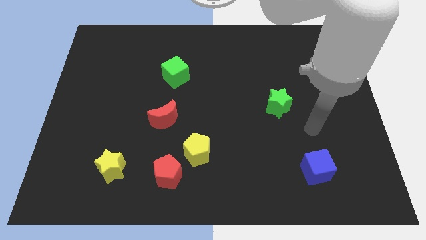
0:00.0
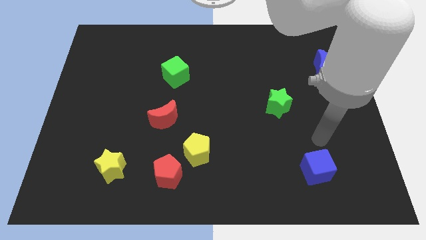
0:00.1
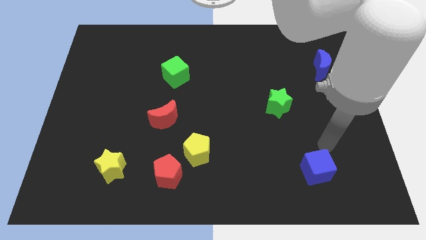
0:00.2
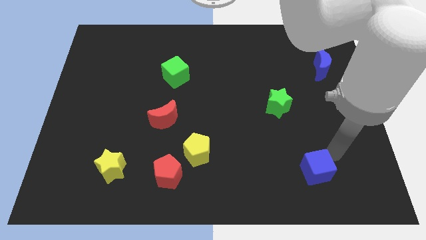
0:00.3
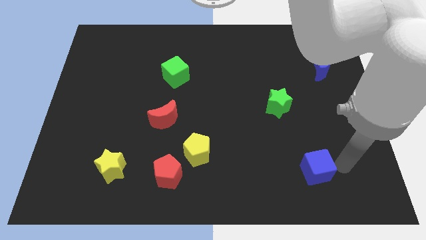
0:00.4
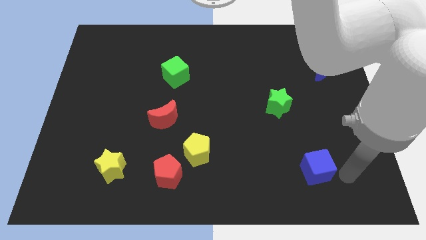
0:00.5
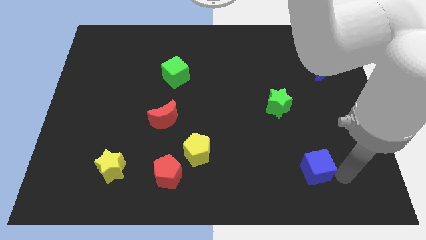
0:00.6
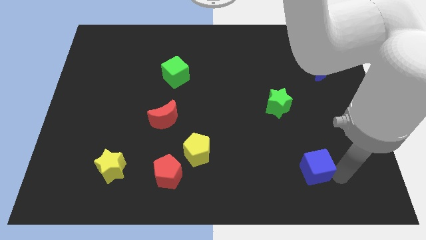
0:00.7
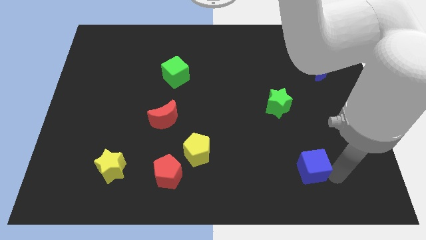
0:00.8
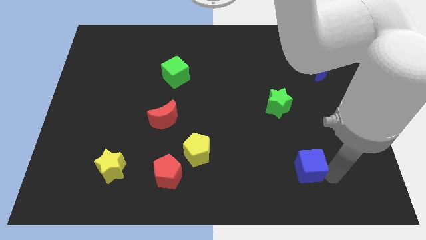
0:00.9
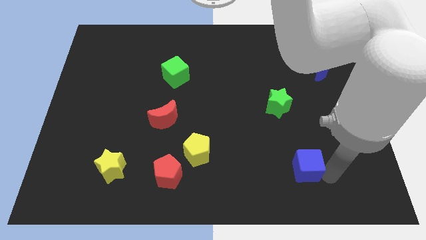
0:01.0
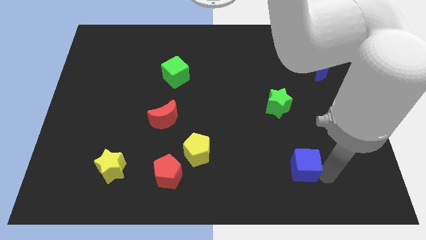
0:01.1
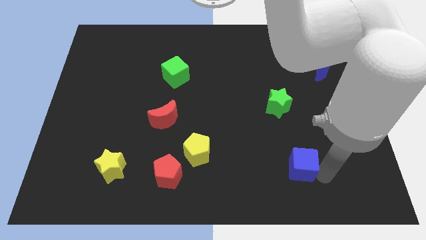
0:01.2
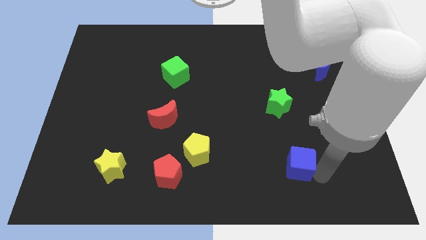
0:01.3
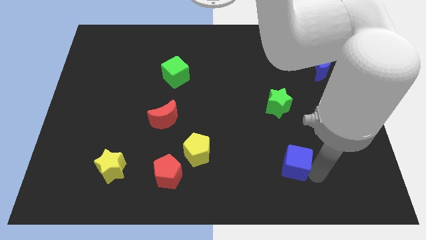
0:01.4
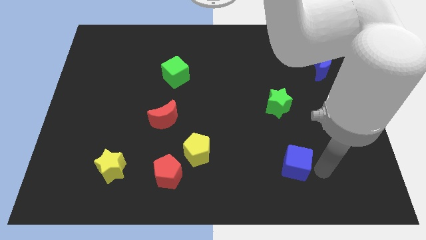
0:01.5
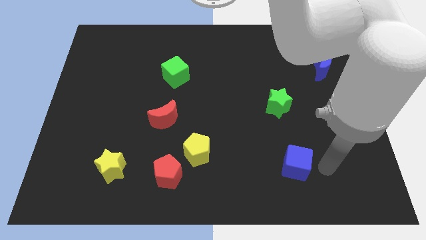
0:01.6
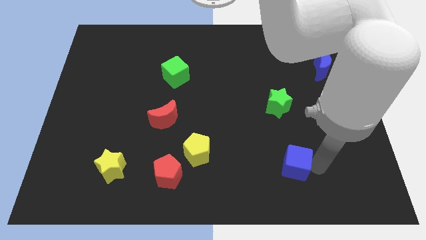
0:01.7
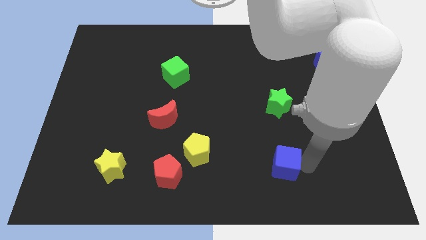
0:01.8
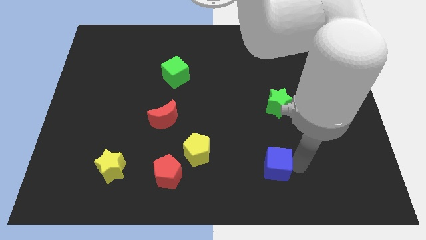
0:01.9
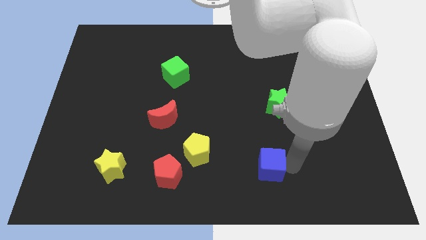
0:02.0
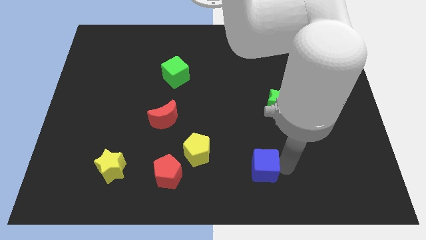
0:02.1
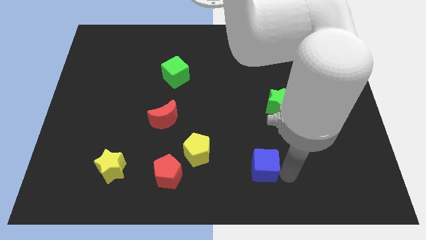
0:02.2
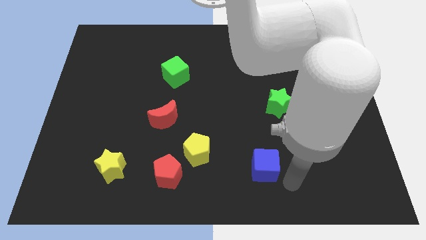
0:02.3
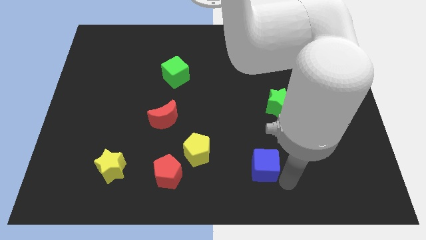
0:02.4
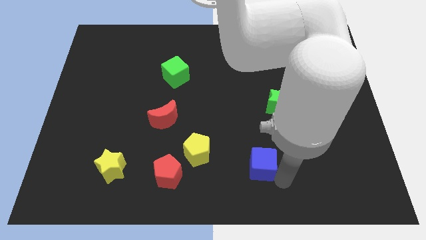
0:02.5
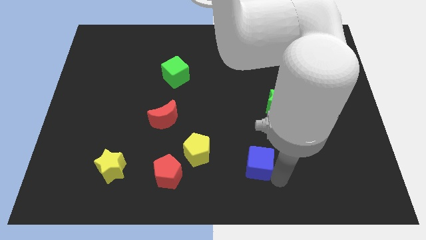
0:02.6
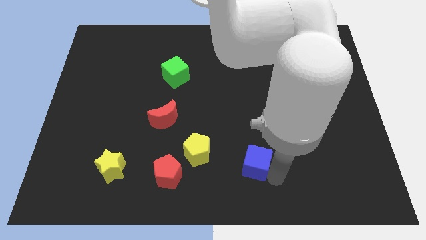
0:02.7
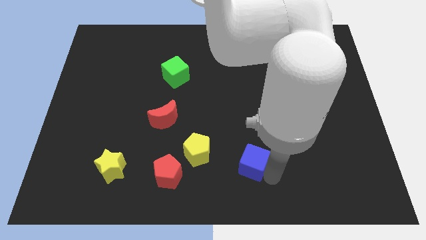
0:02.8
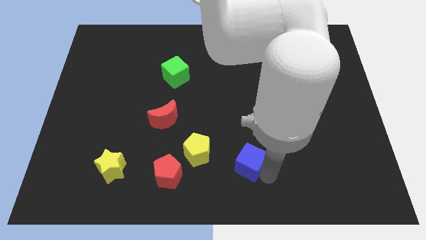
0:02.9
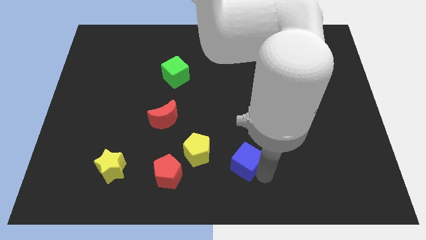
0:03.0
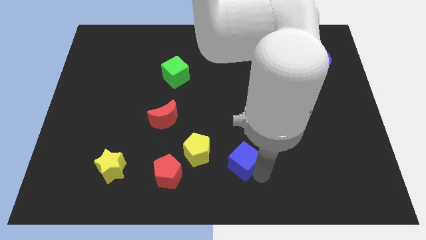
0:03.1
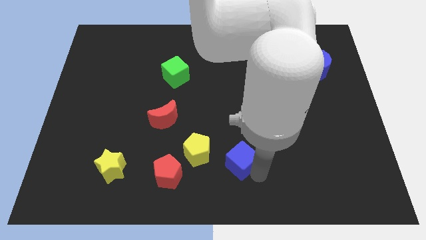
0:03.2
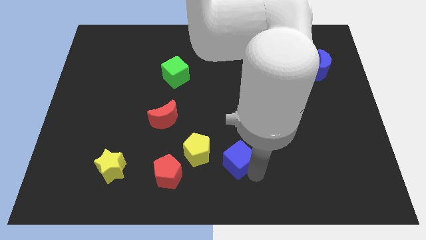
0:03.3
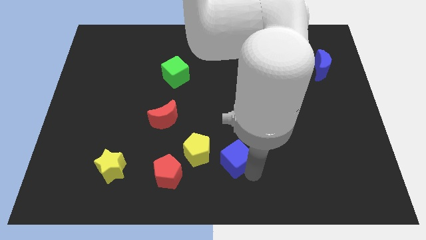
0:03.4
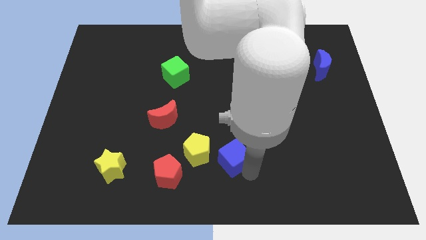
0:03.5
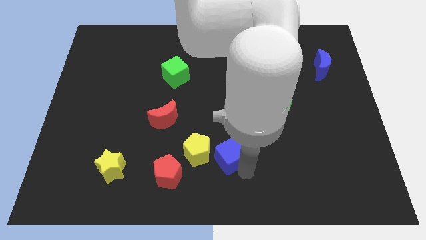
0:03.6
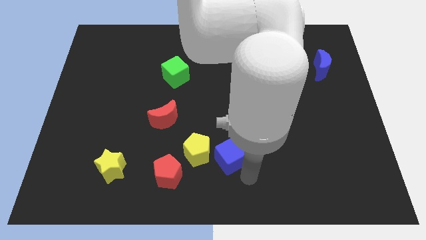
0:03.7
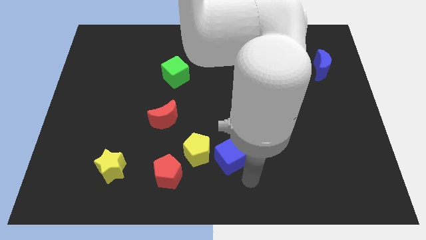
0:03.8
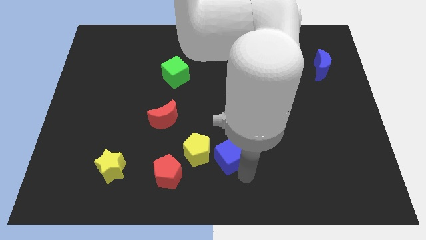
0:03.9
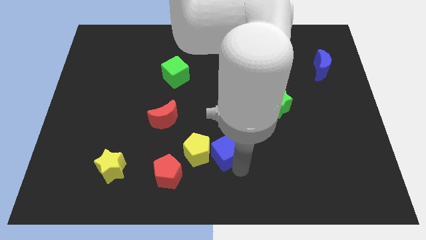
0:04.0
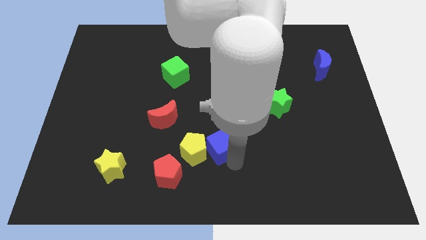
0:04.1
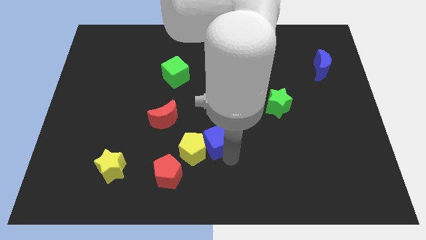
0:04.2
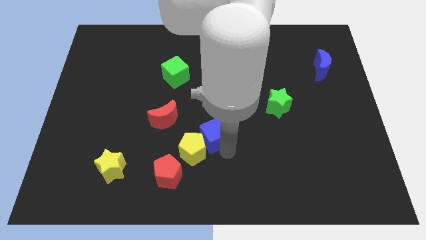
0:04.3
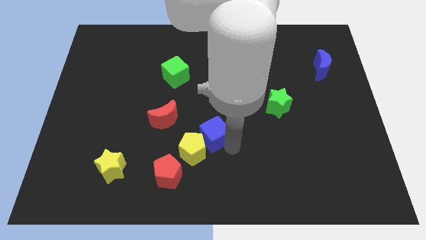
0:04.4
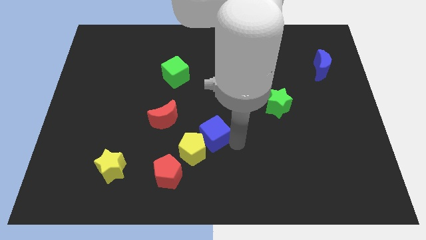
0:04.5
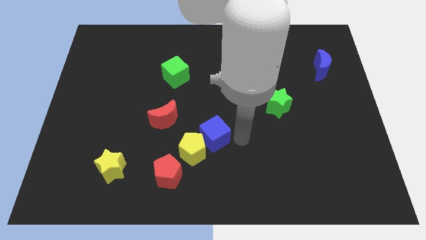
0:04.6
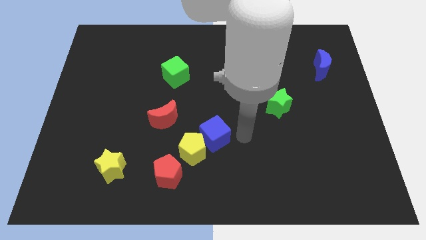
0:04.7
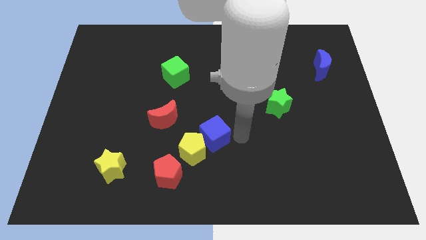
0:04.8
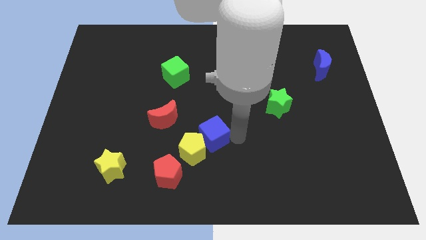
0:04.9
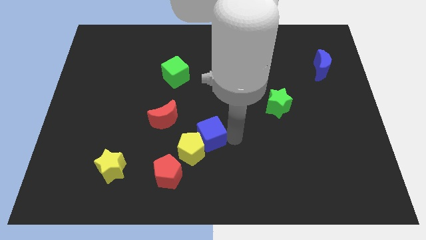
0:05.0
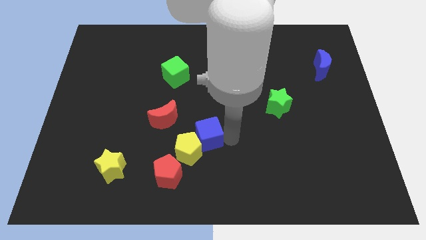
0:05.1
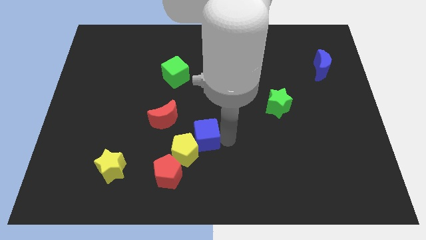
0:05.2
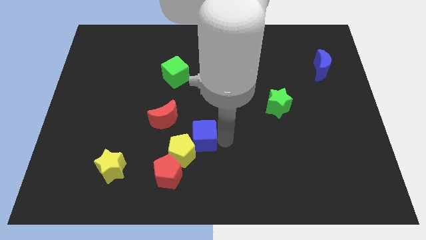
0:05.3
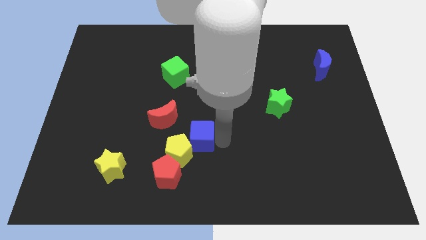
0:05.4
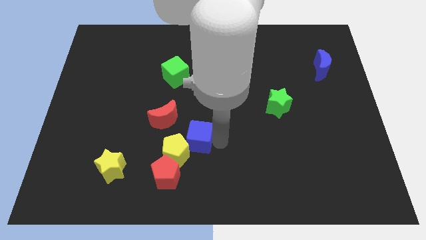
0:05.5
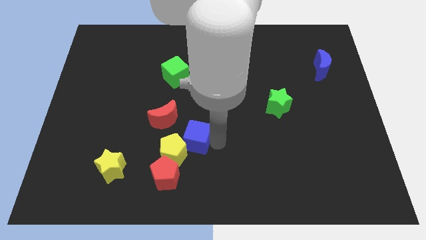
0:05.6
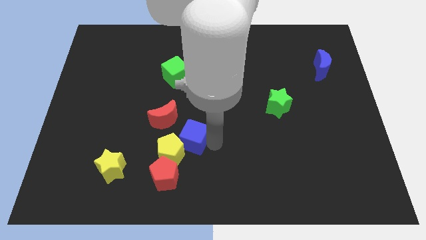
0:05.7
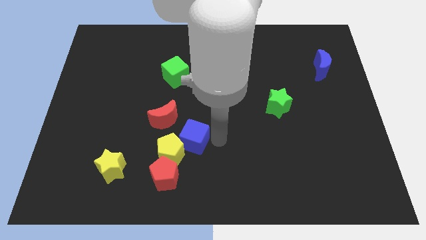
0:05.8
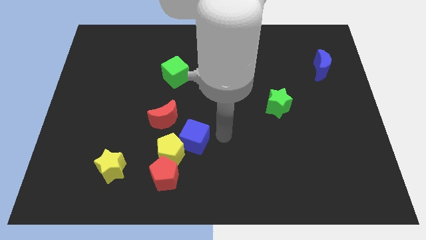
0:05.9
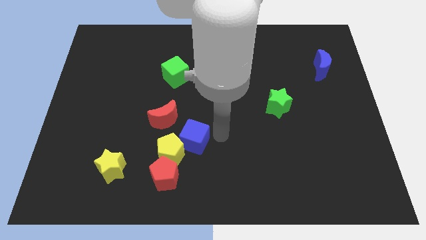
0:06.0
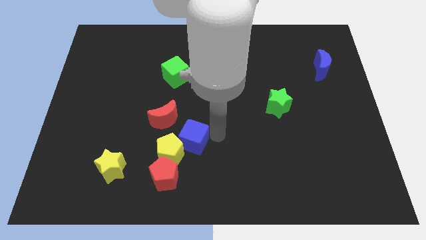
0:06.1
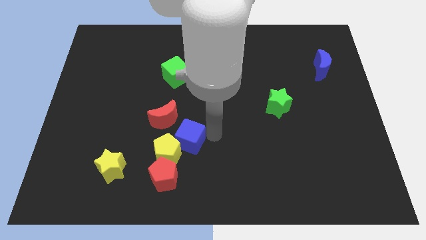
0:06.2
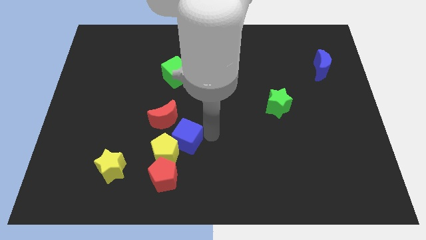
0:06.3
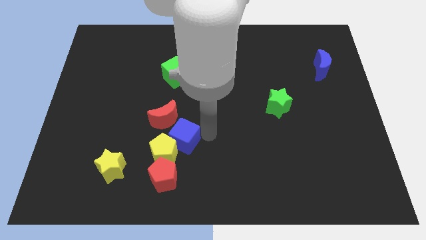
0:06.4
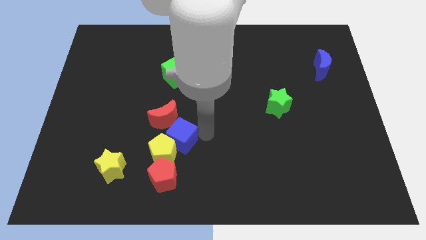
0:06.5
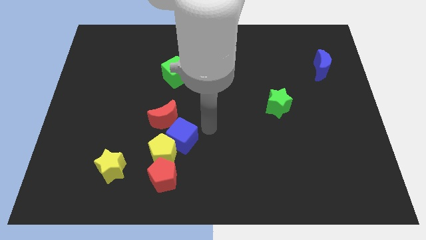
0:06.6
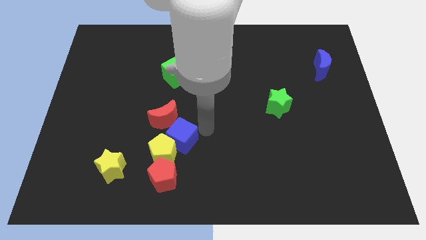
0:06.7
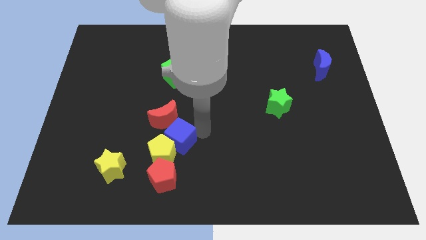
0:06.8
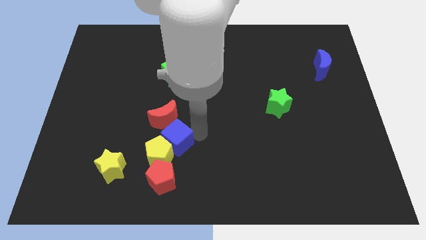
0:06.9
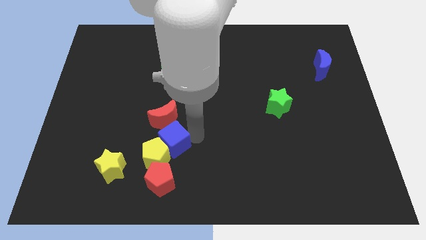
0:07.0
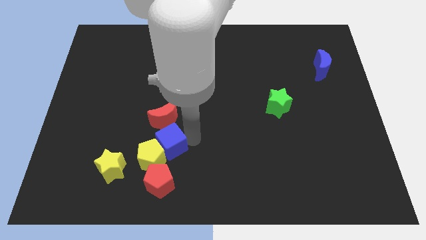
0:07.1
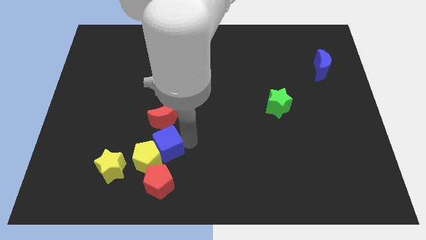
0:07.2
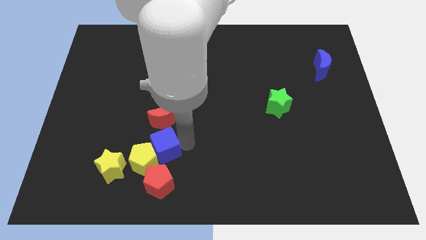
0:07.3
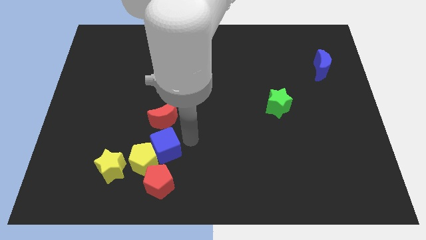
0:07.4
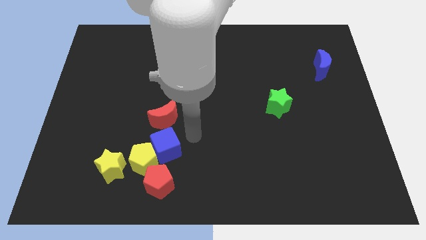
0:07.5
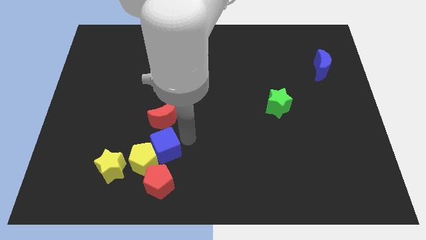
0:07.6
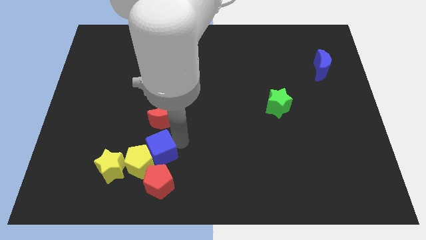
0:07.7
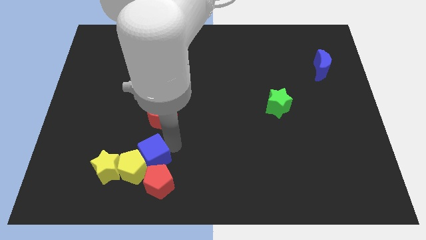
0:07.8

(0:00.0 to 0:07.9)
push the blue cube to the top left of the red pentagon
